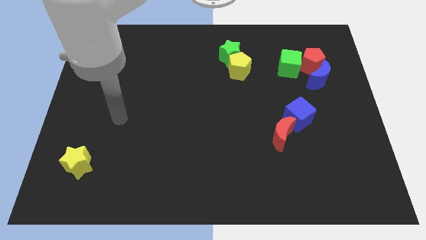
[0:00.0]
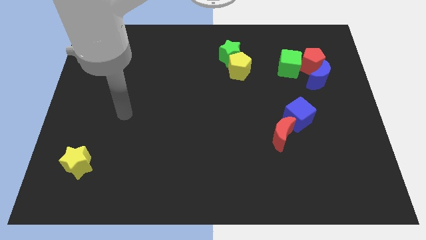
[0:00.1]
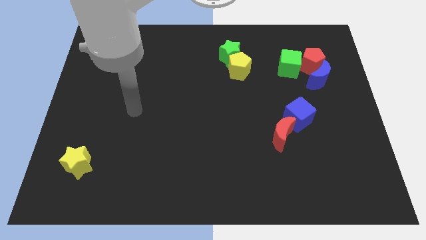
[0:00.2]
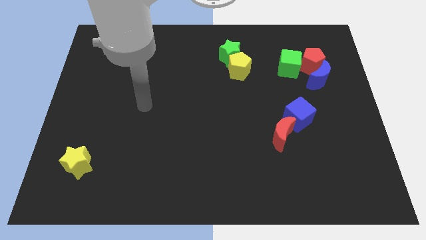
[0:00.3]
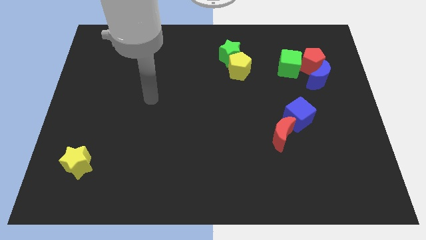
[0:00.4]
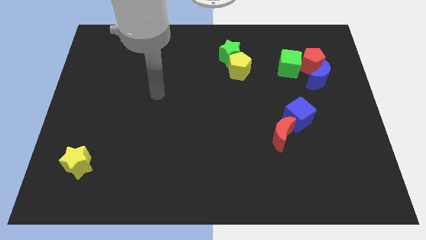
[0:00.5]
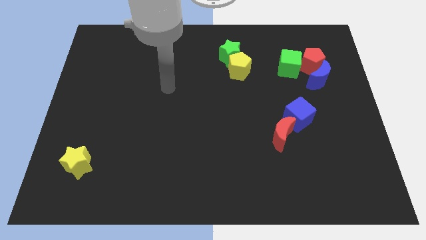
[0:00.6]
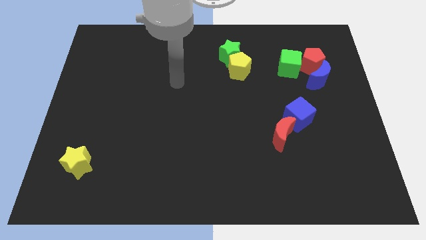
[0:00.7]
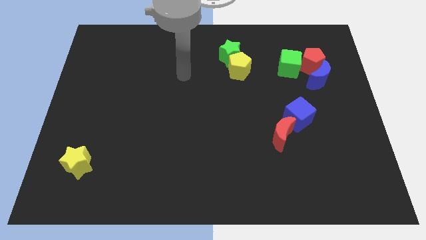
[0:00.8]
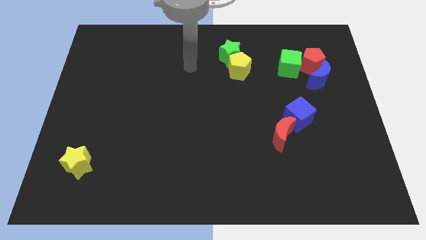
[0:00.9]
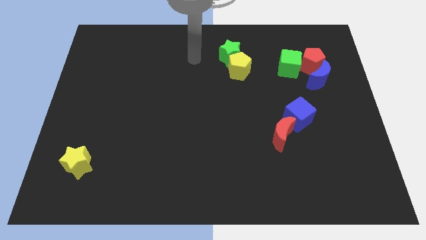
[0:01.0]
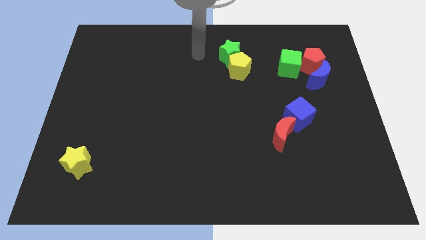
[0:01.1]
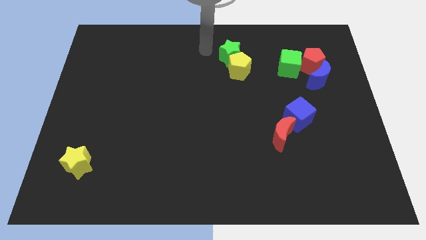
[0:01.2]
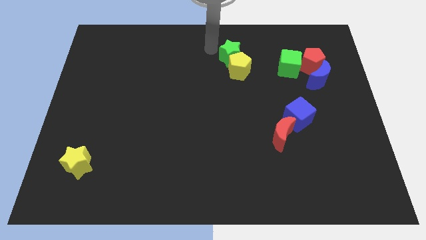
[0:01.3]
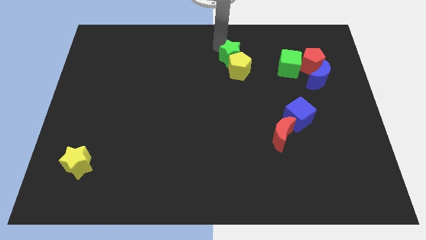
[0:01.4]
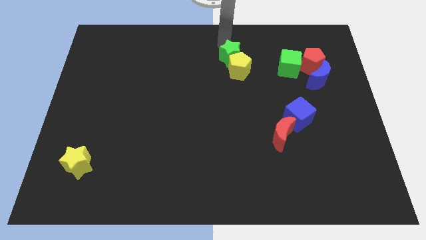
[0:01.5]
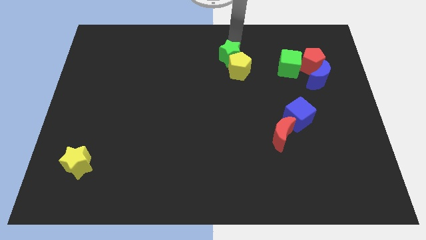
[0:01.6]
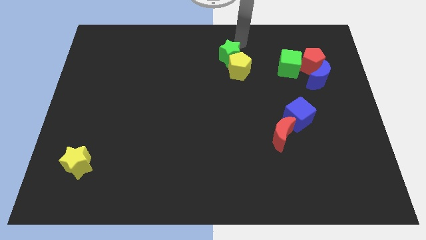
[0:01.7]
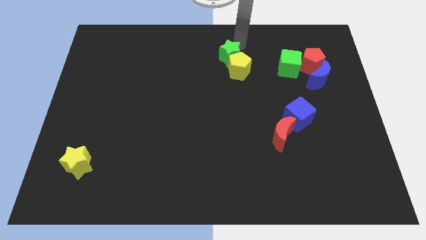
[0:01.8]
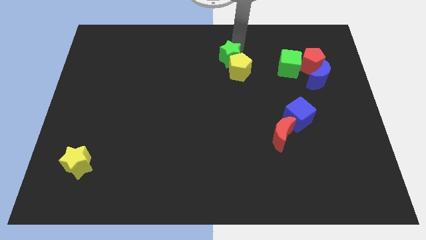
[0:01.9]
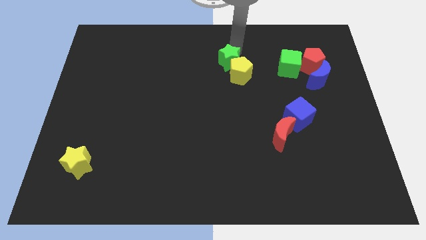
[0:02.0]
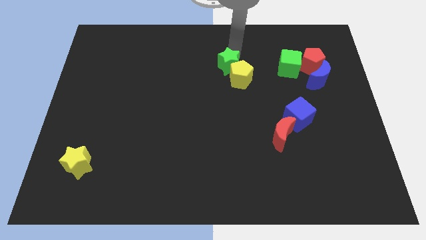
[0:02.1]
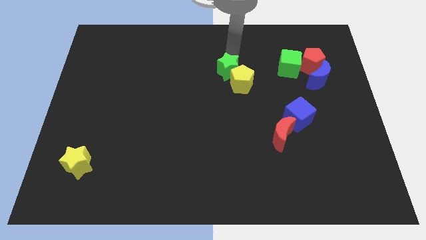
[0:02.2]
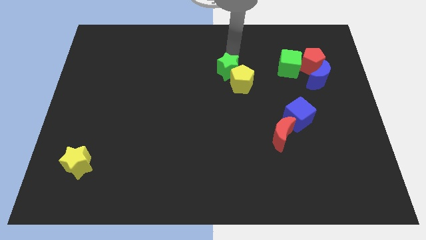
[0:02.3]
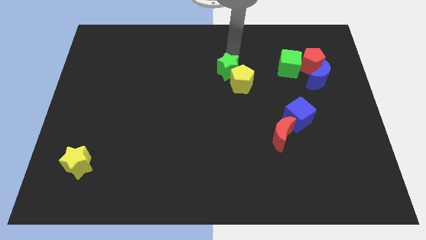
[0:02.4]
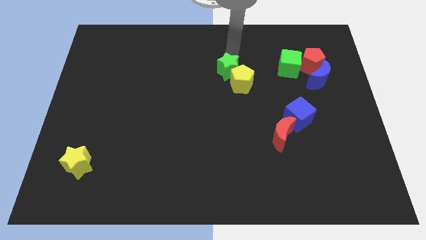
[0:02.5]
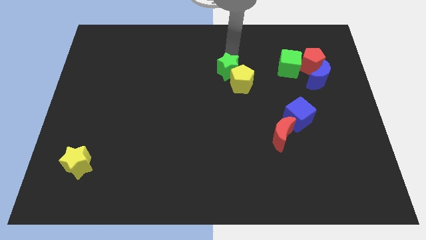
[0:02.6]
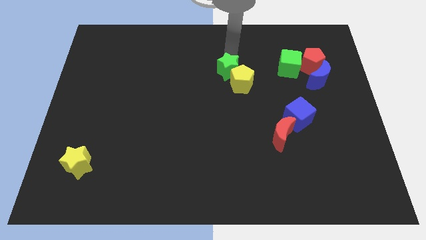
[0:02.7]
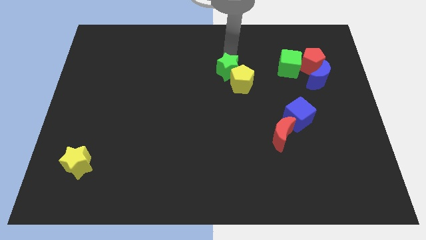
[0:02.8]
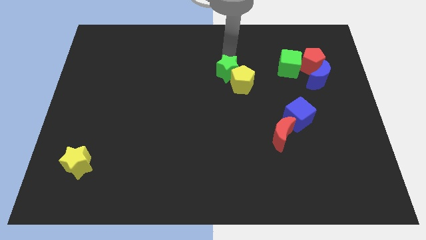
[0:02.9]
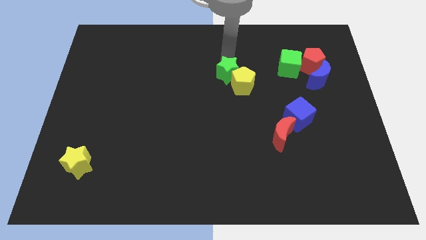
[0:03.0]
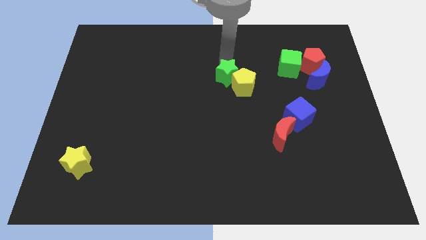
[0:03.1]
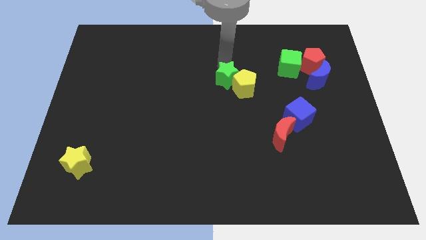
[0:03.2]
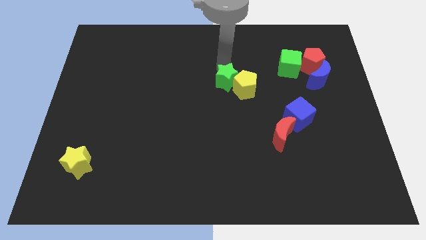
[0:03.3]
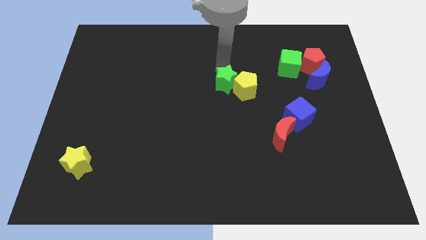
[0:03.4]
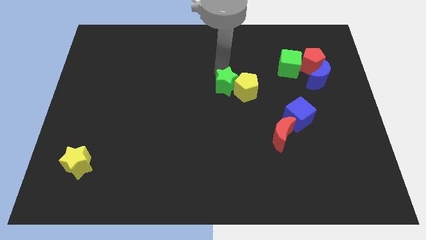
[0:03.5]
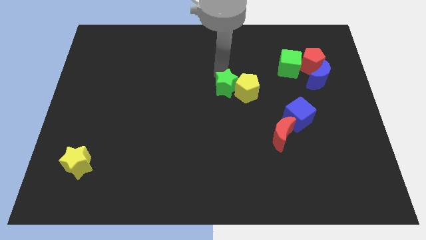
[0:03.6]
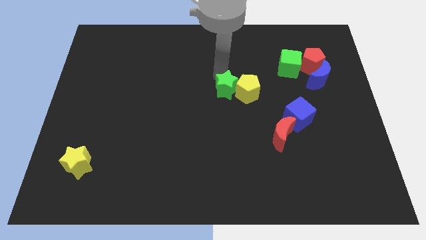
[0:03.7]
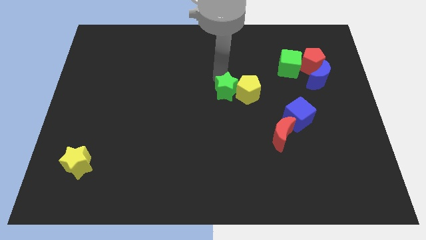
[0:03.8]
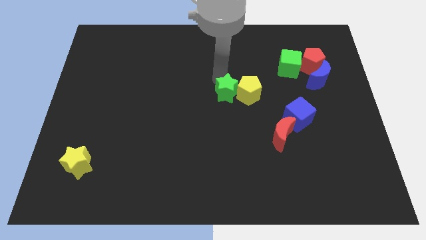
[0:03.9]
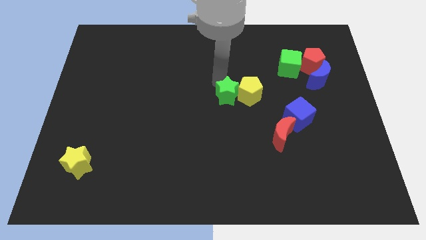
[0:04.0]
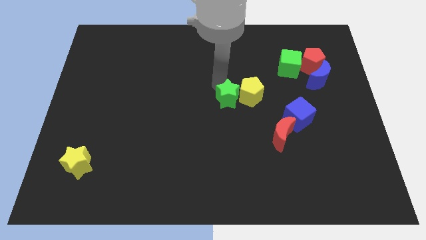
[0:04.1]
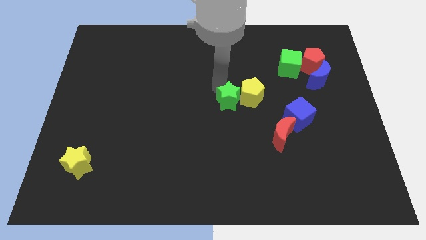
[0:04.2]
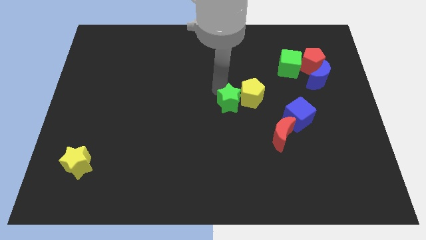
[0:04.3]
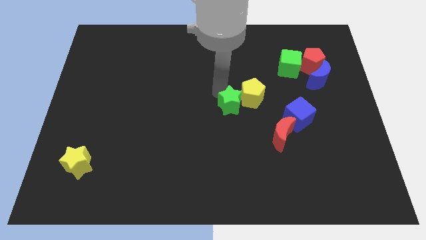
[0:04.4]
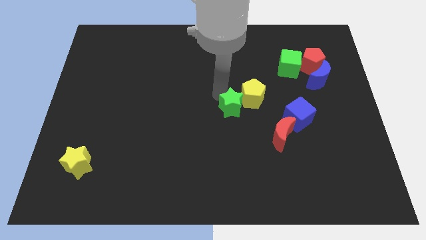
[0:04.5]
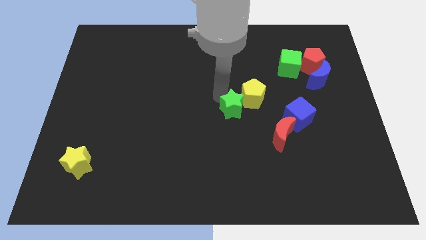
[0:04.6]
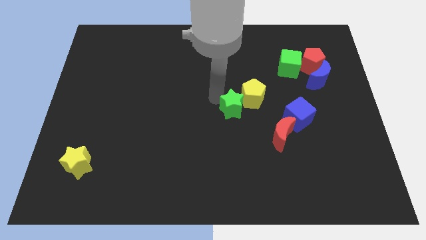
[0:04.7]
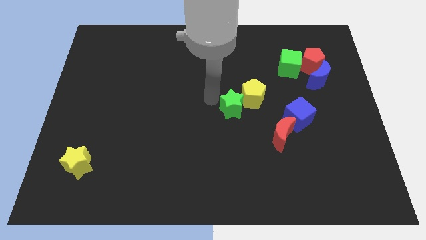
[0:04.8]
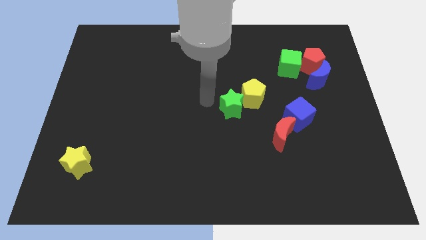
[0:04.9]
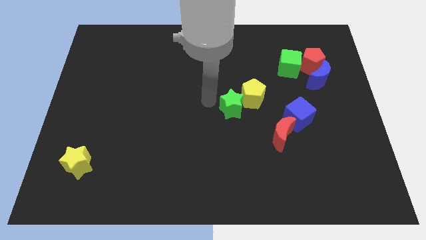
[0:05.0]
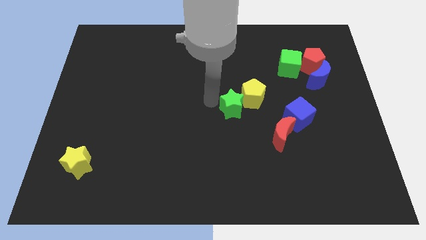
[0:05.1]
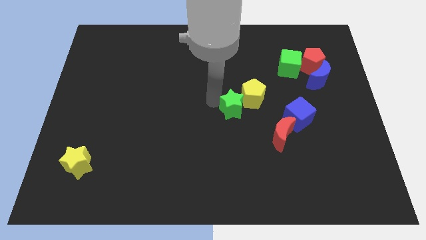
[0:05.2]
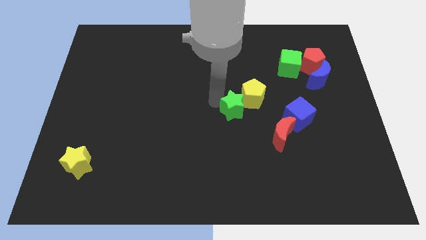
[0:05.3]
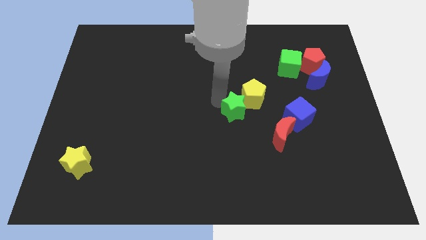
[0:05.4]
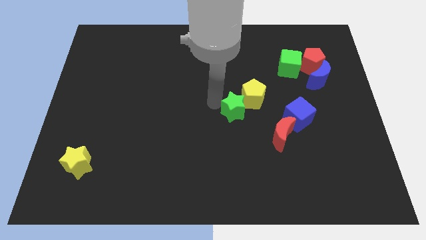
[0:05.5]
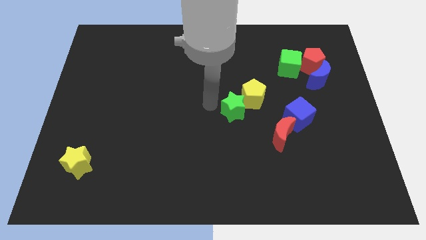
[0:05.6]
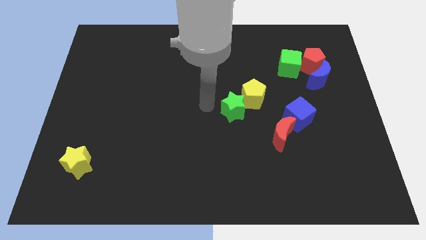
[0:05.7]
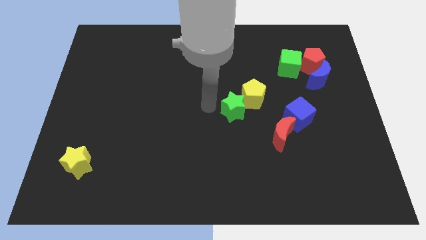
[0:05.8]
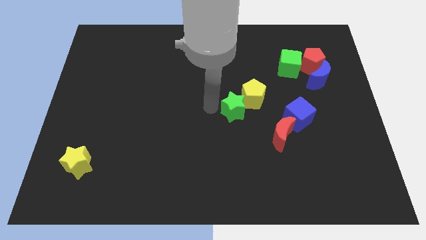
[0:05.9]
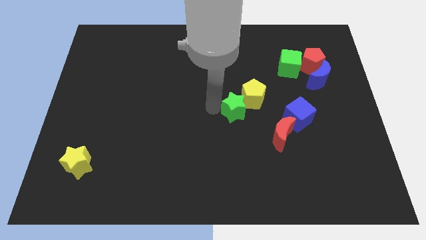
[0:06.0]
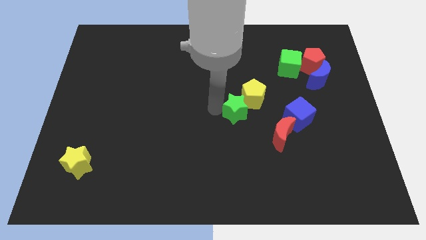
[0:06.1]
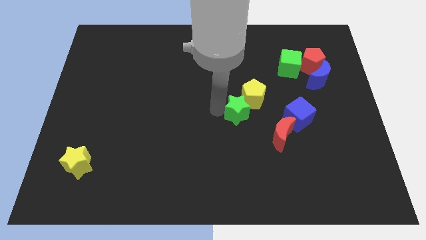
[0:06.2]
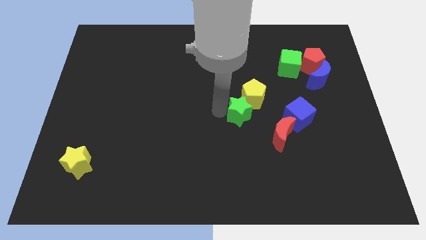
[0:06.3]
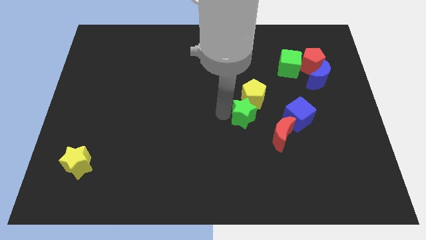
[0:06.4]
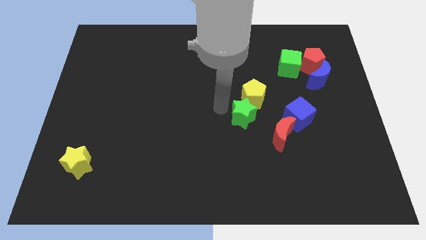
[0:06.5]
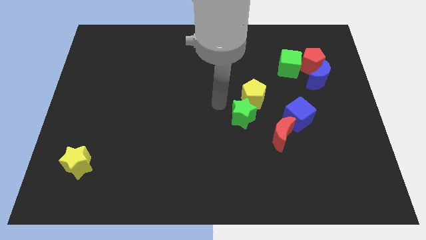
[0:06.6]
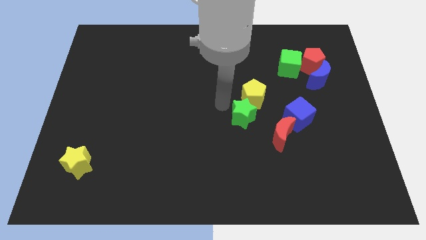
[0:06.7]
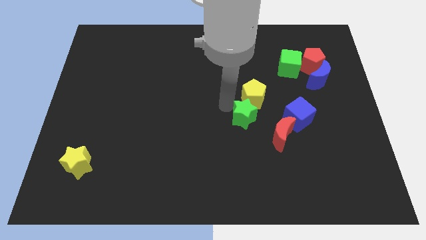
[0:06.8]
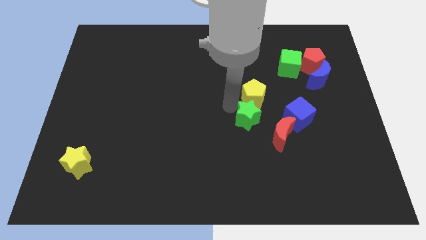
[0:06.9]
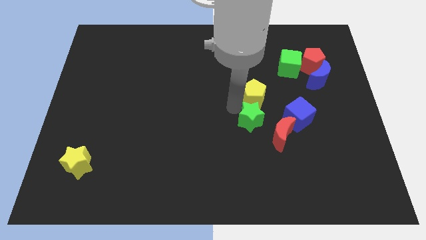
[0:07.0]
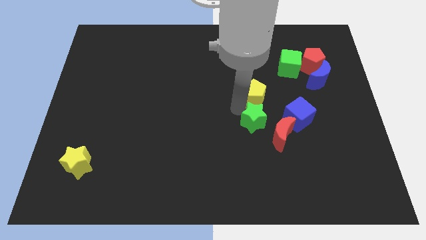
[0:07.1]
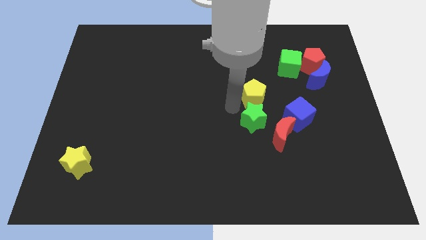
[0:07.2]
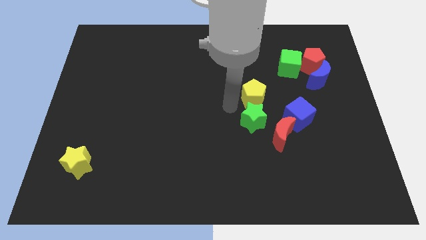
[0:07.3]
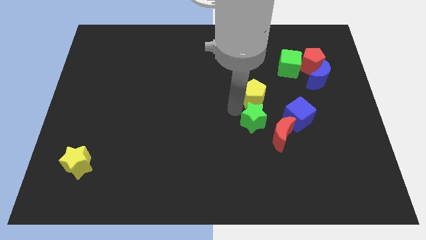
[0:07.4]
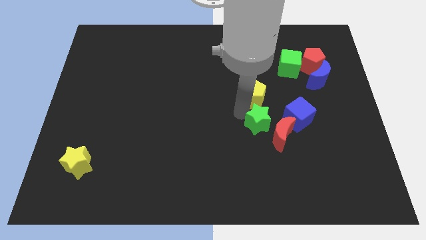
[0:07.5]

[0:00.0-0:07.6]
move the green star close to the red moon
